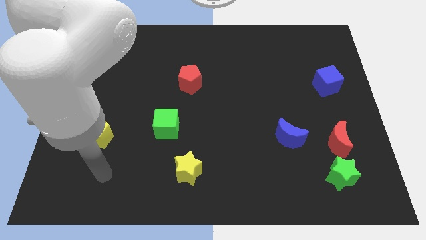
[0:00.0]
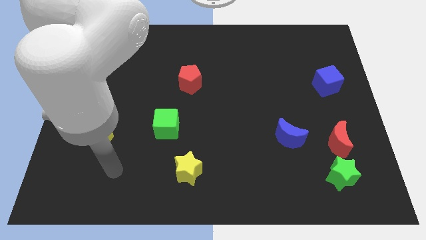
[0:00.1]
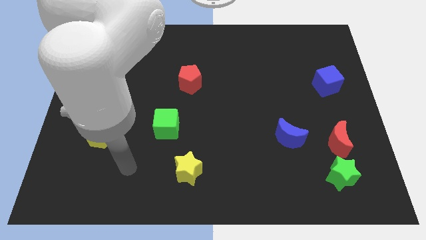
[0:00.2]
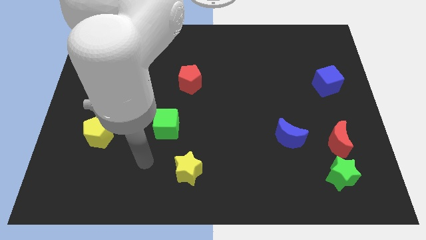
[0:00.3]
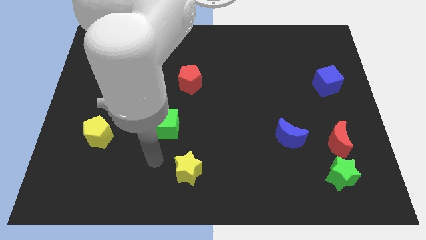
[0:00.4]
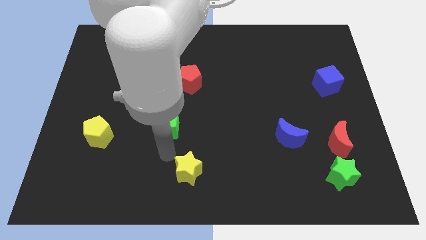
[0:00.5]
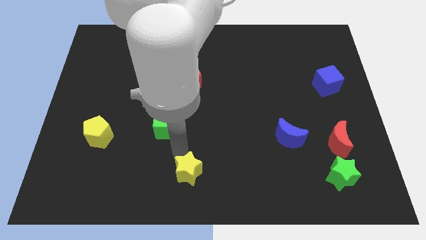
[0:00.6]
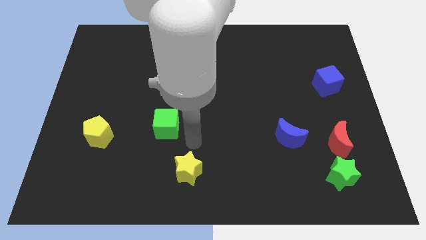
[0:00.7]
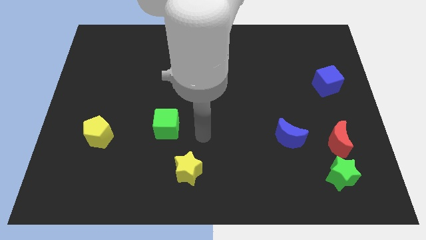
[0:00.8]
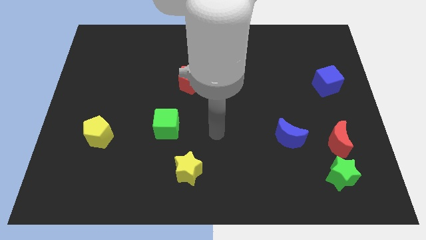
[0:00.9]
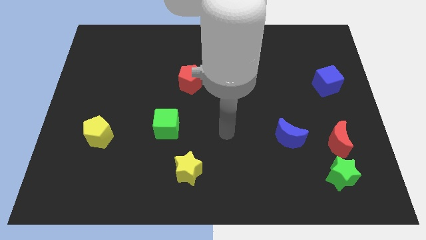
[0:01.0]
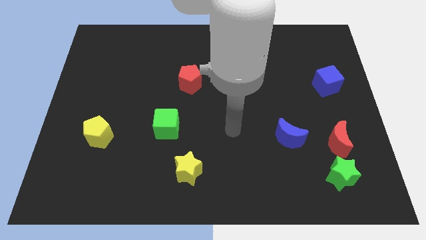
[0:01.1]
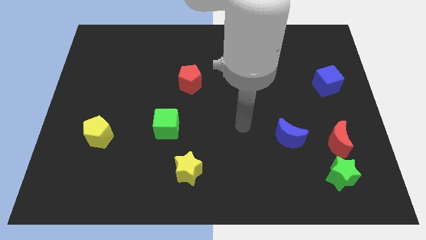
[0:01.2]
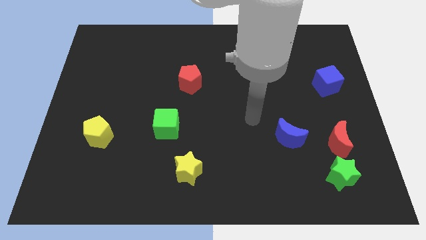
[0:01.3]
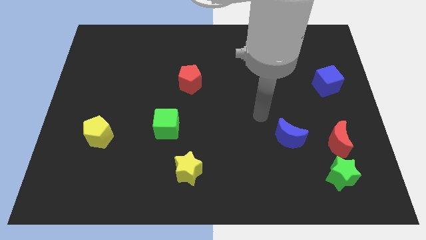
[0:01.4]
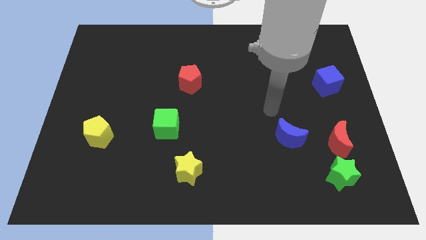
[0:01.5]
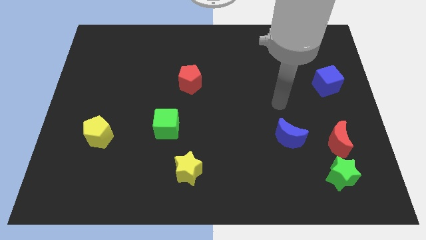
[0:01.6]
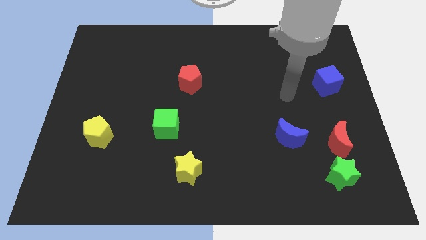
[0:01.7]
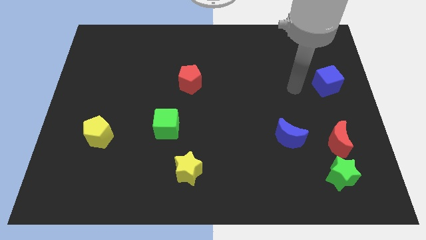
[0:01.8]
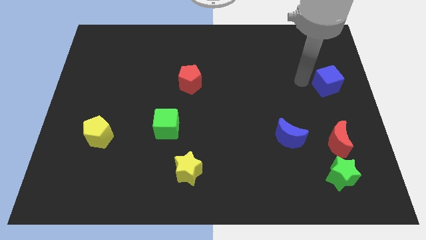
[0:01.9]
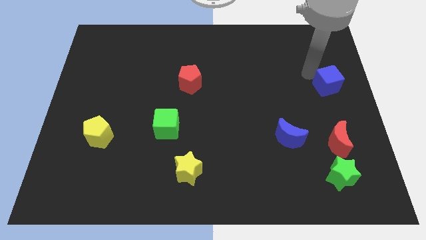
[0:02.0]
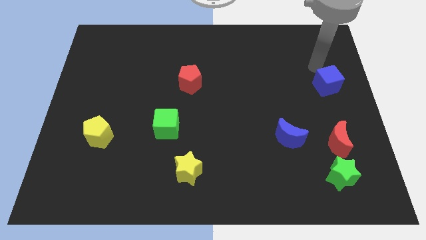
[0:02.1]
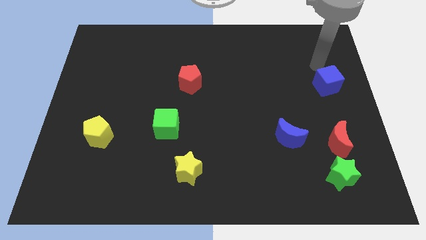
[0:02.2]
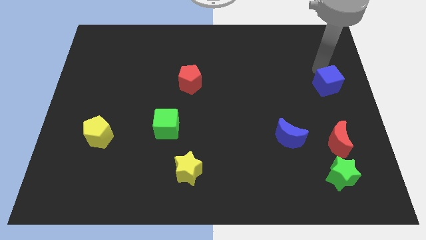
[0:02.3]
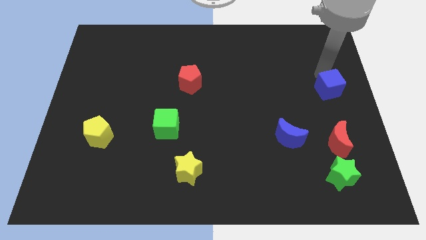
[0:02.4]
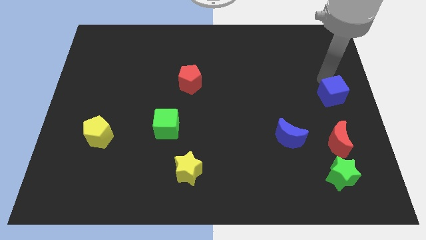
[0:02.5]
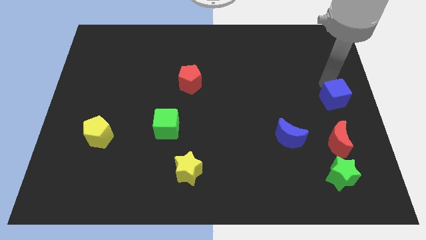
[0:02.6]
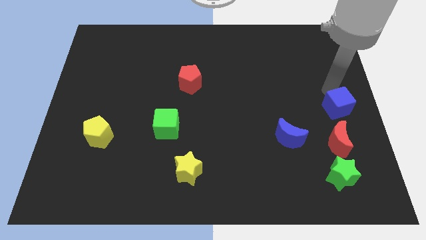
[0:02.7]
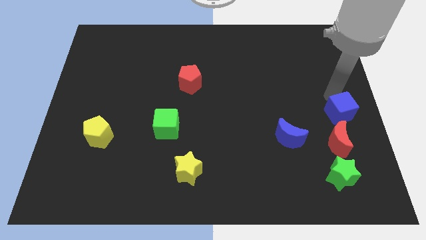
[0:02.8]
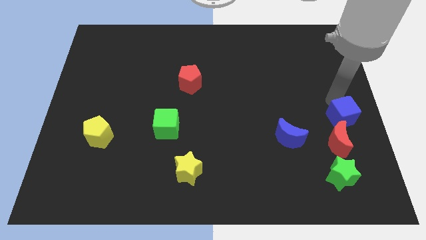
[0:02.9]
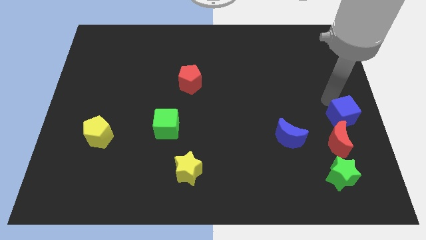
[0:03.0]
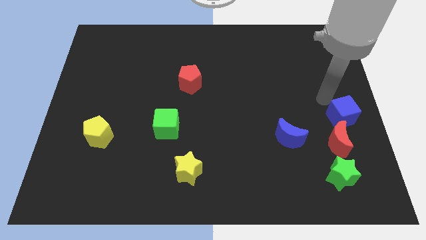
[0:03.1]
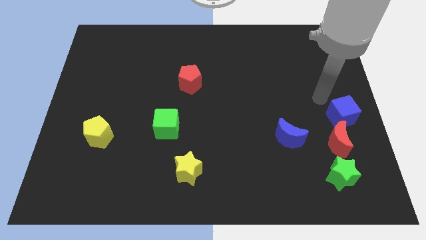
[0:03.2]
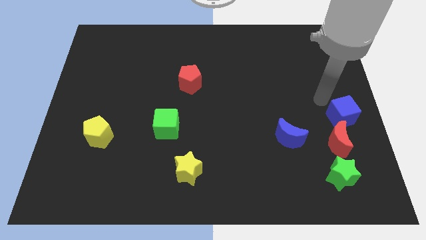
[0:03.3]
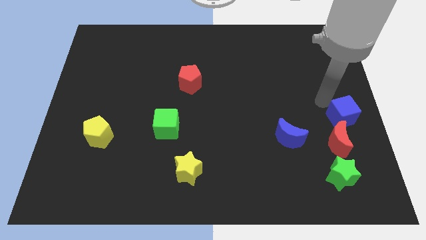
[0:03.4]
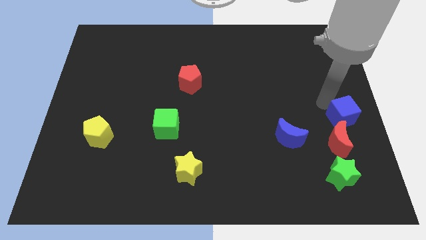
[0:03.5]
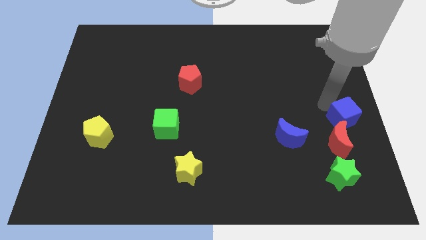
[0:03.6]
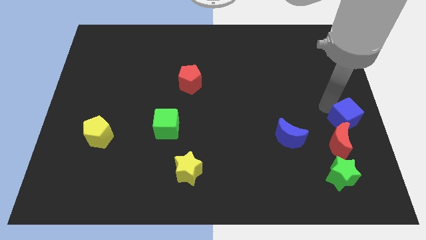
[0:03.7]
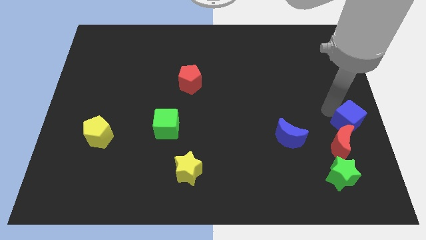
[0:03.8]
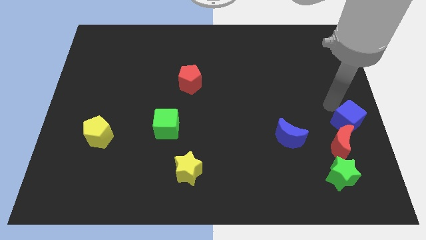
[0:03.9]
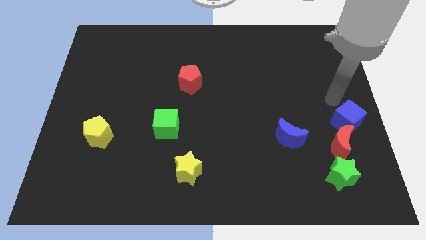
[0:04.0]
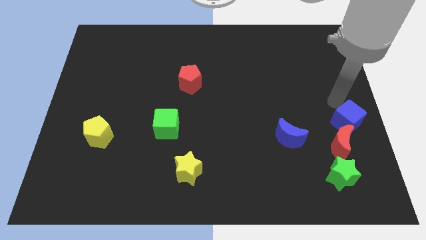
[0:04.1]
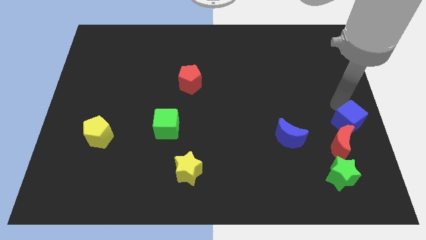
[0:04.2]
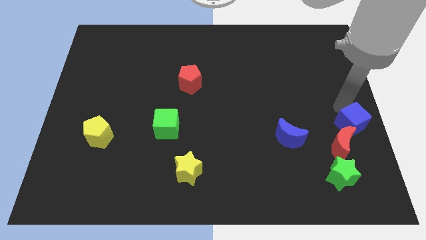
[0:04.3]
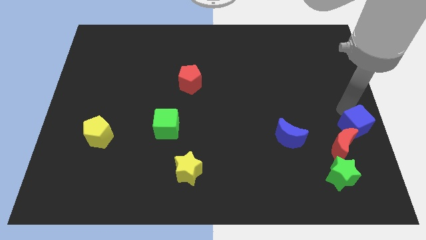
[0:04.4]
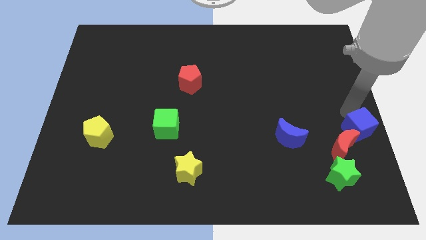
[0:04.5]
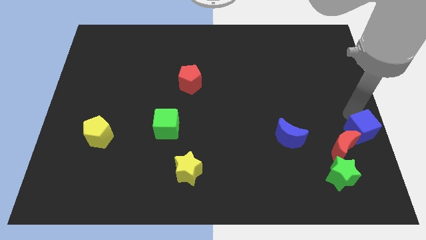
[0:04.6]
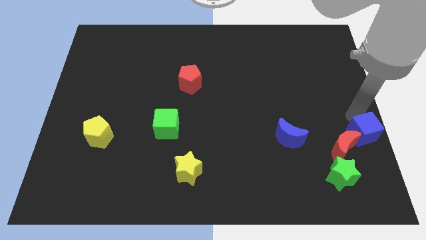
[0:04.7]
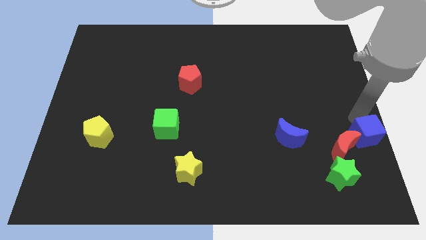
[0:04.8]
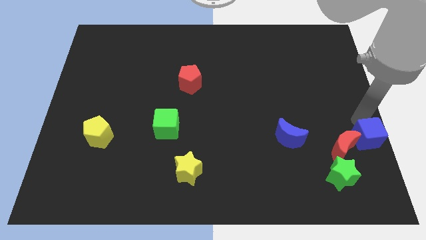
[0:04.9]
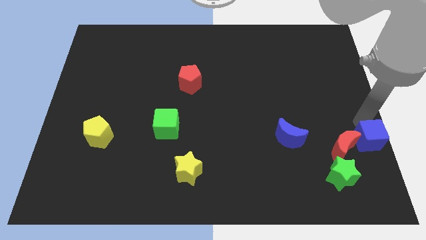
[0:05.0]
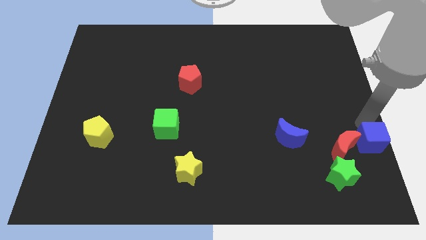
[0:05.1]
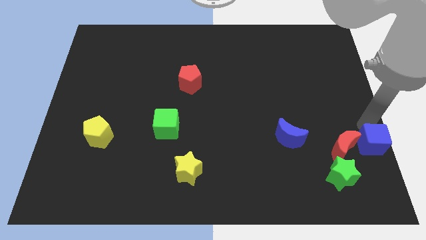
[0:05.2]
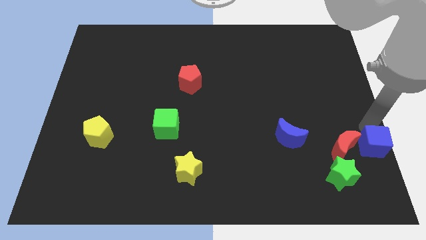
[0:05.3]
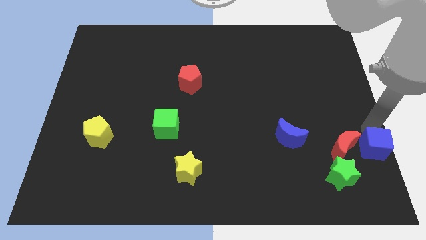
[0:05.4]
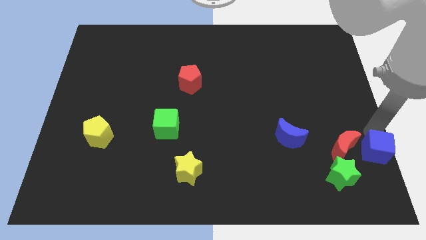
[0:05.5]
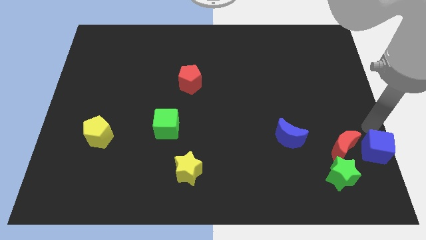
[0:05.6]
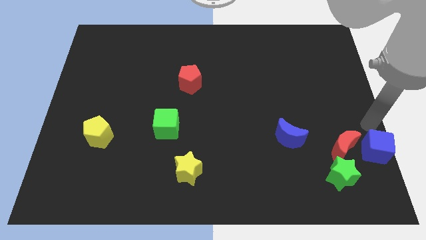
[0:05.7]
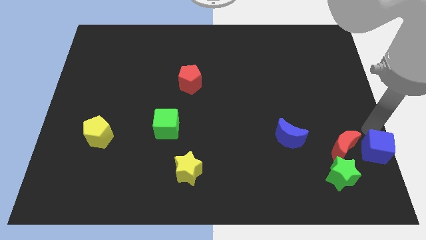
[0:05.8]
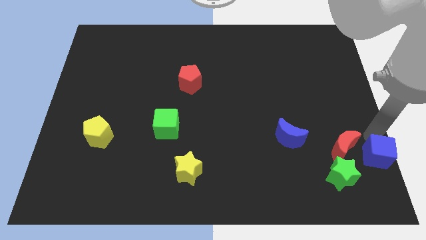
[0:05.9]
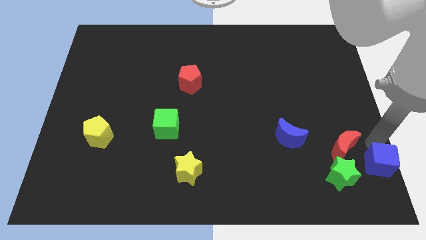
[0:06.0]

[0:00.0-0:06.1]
put the blue cube to the bottom right of the board
